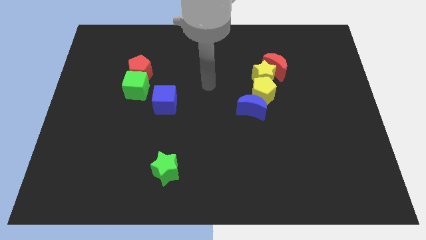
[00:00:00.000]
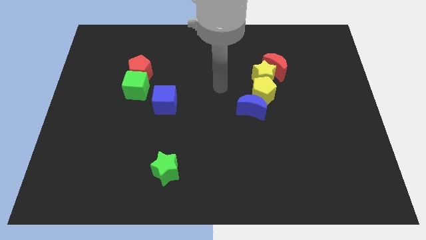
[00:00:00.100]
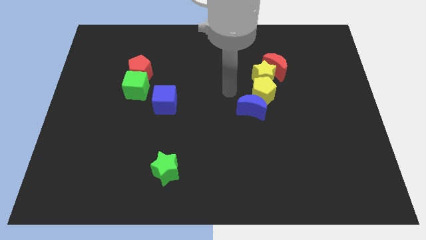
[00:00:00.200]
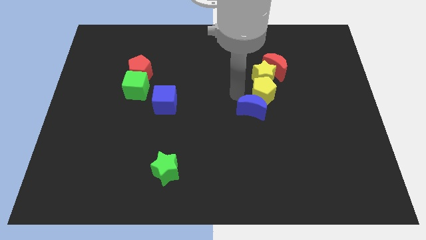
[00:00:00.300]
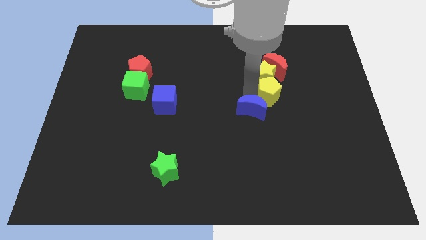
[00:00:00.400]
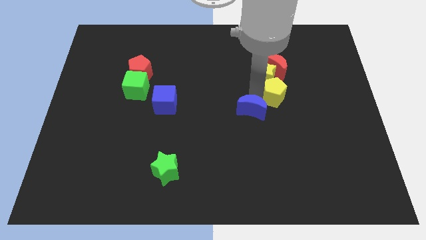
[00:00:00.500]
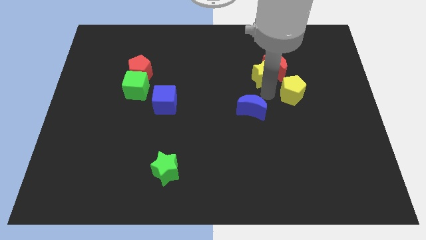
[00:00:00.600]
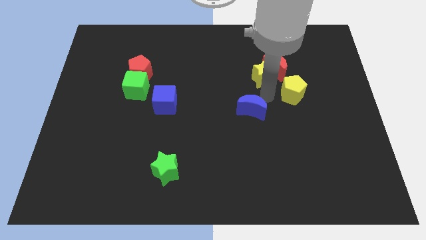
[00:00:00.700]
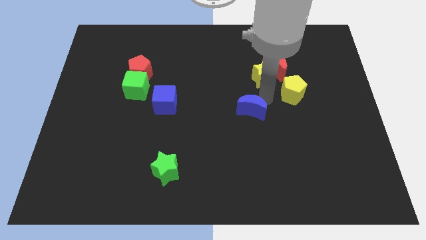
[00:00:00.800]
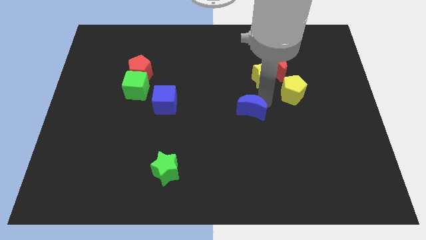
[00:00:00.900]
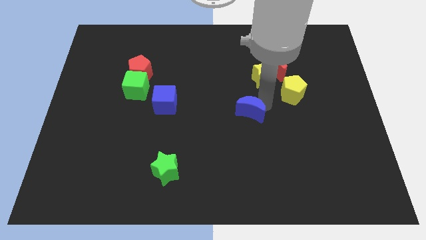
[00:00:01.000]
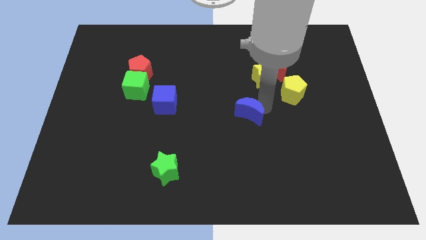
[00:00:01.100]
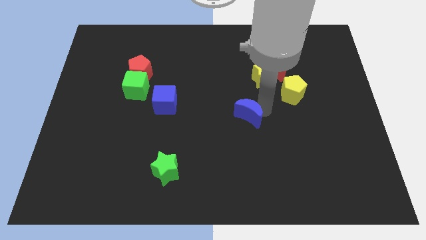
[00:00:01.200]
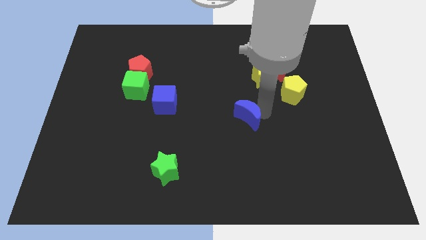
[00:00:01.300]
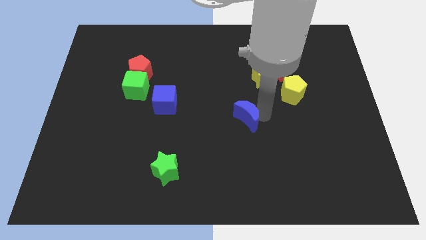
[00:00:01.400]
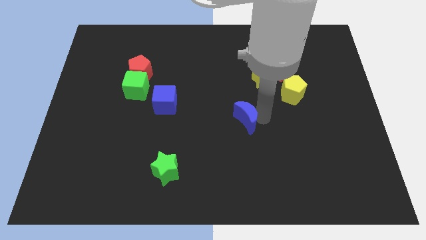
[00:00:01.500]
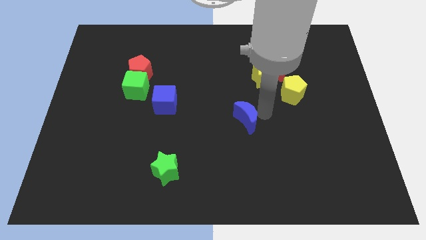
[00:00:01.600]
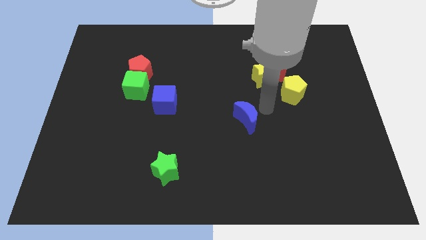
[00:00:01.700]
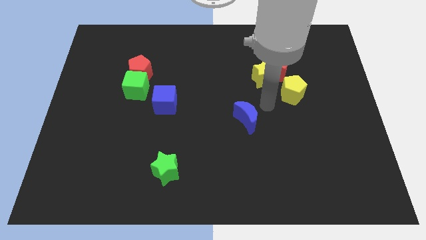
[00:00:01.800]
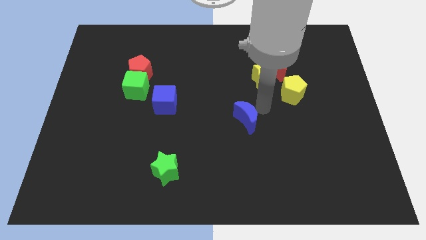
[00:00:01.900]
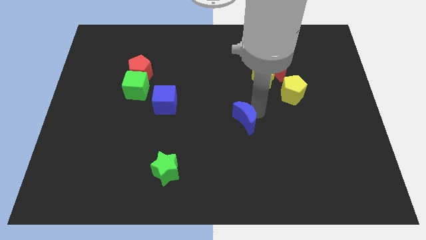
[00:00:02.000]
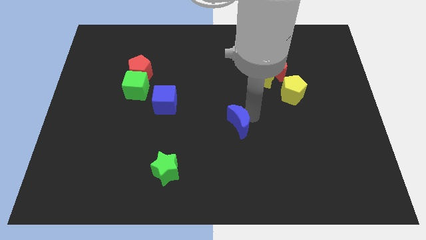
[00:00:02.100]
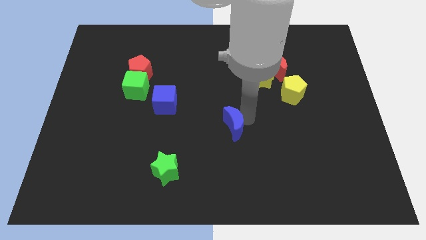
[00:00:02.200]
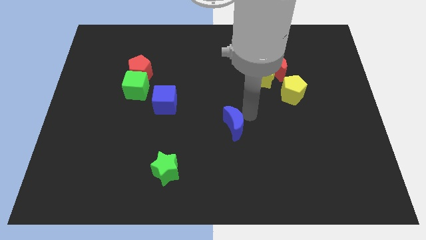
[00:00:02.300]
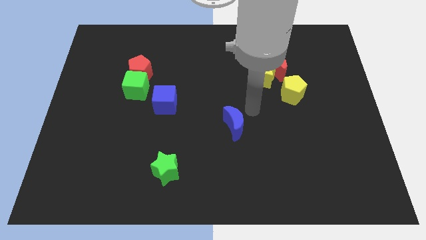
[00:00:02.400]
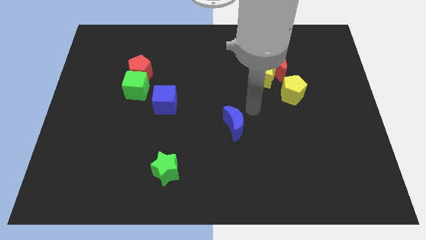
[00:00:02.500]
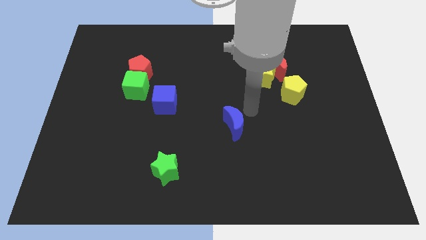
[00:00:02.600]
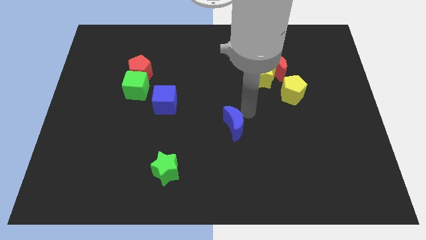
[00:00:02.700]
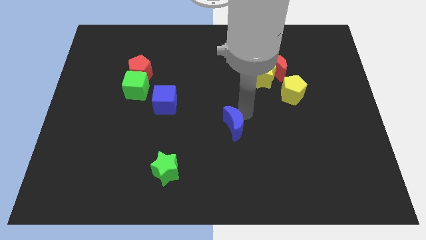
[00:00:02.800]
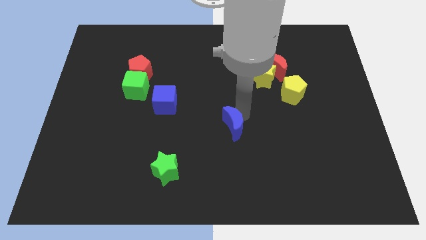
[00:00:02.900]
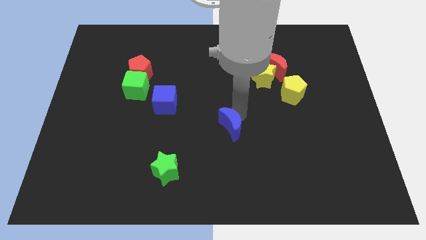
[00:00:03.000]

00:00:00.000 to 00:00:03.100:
move the blue moon a little down and to the left

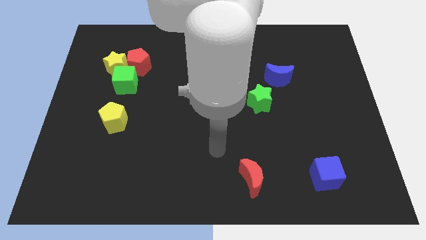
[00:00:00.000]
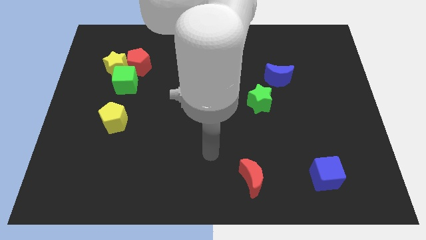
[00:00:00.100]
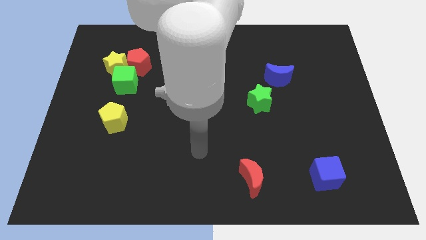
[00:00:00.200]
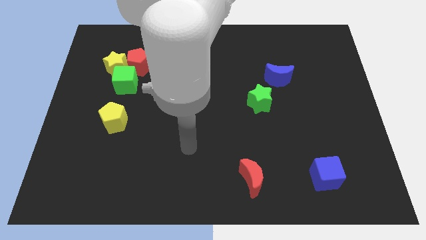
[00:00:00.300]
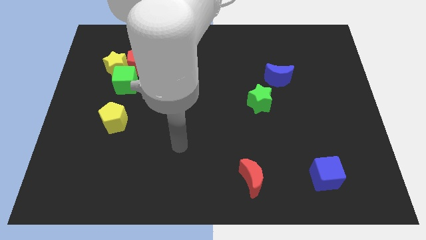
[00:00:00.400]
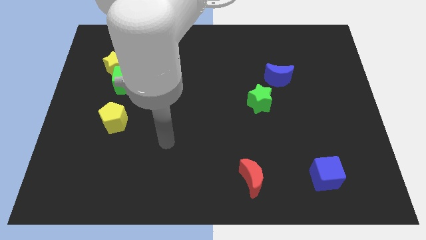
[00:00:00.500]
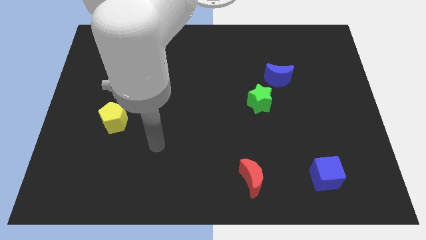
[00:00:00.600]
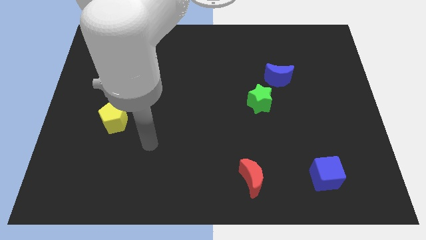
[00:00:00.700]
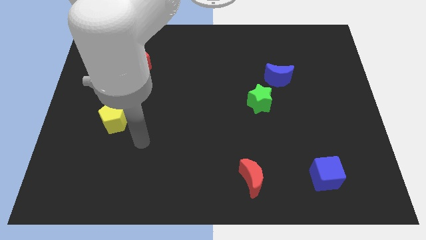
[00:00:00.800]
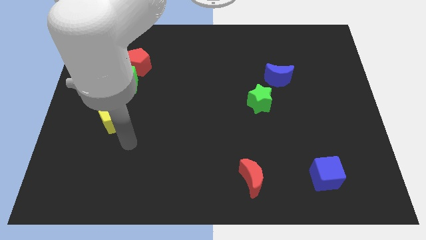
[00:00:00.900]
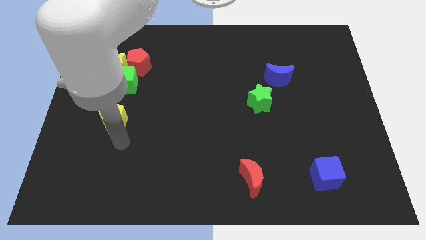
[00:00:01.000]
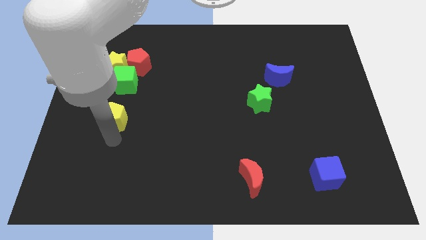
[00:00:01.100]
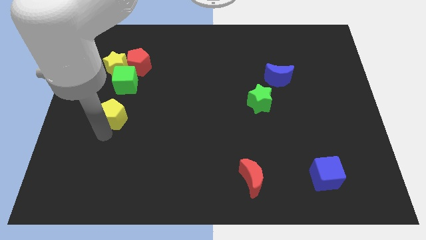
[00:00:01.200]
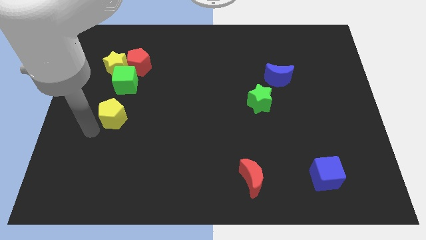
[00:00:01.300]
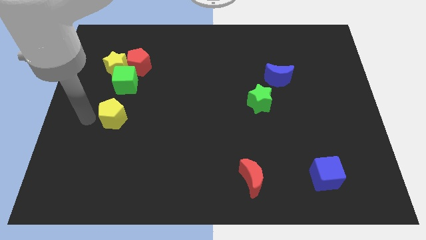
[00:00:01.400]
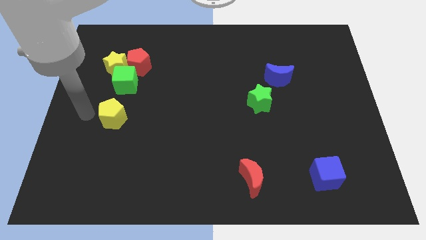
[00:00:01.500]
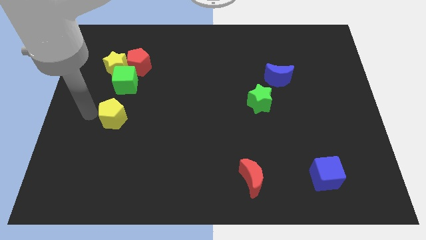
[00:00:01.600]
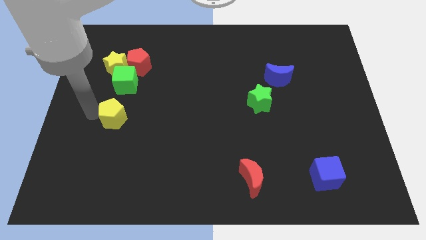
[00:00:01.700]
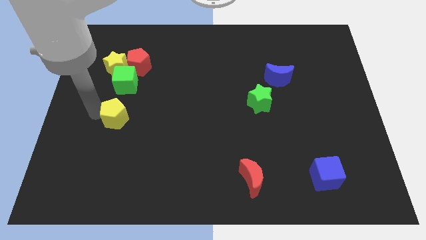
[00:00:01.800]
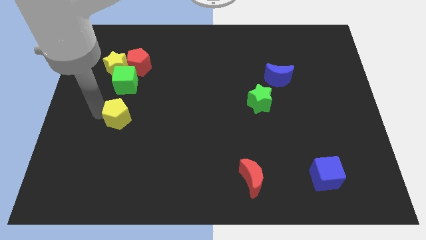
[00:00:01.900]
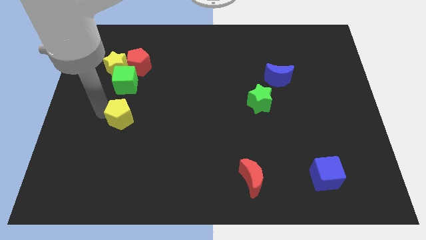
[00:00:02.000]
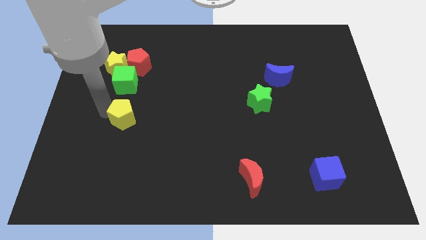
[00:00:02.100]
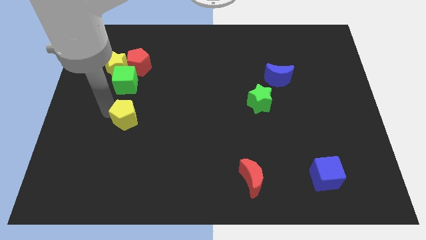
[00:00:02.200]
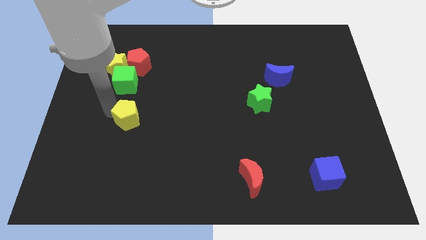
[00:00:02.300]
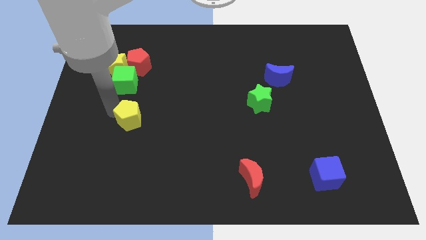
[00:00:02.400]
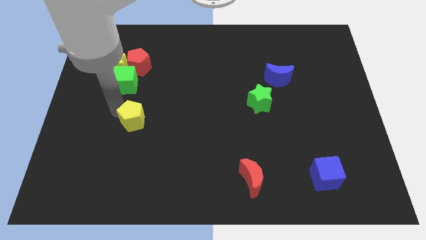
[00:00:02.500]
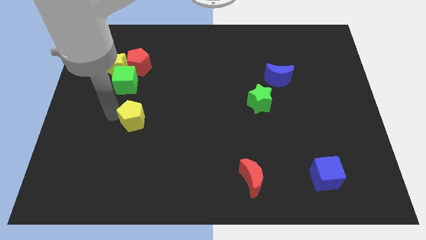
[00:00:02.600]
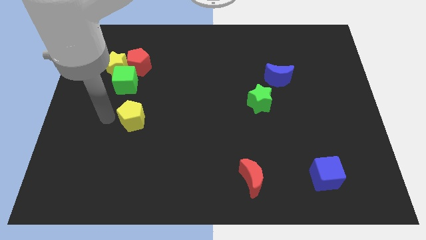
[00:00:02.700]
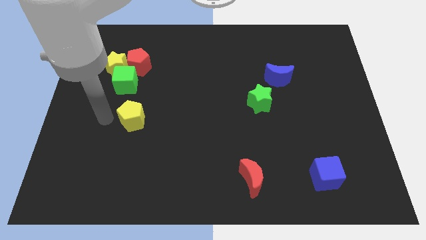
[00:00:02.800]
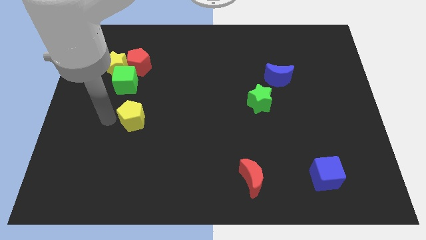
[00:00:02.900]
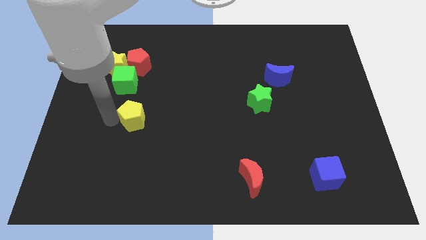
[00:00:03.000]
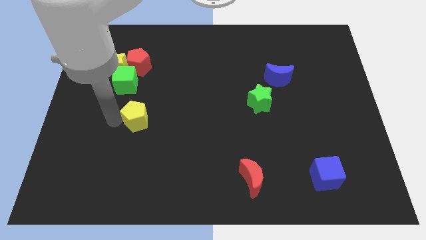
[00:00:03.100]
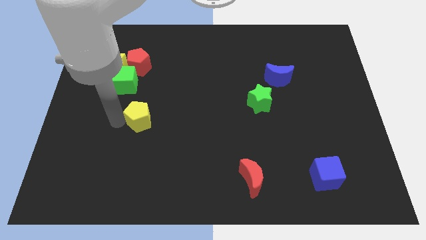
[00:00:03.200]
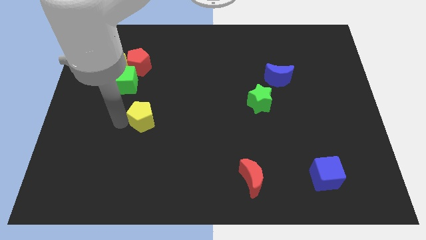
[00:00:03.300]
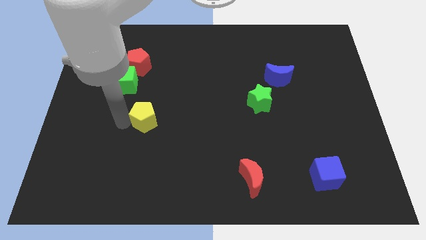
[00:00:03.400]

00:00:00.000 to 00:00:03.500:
slightly slide the yellow pentagon right

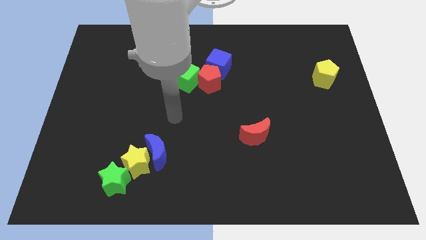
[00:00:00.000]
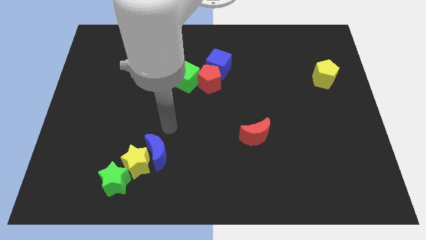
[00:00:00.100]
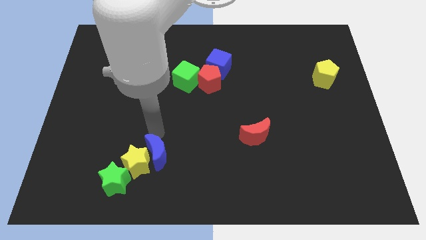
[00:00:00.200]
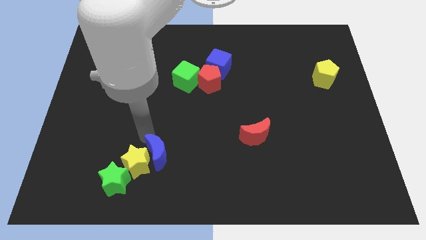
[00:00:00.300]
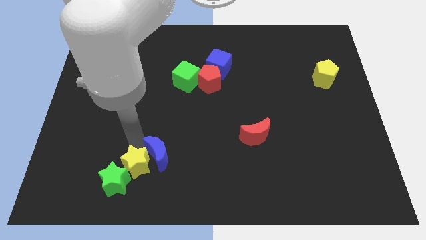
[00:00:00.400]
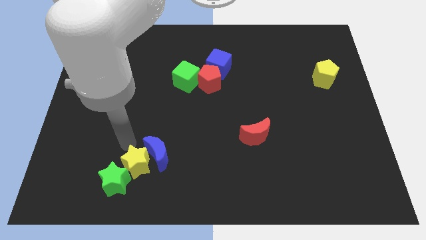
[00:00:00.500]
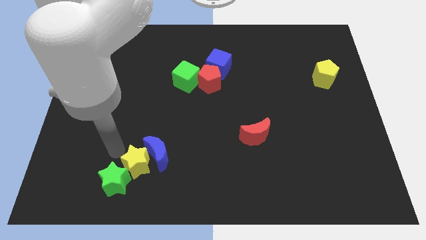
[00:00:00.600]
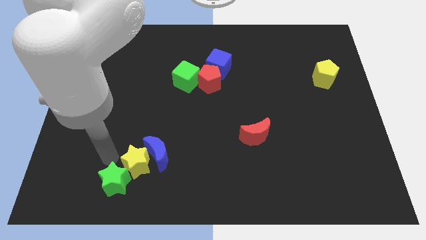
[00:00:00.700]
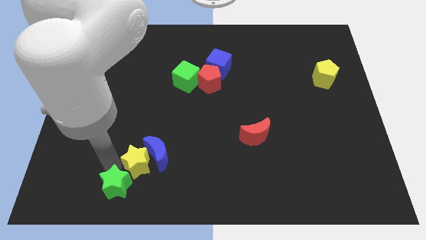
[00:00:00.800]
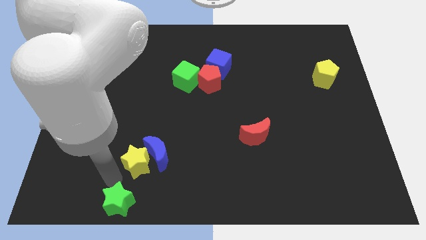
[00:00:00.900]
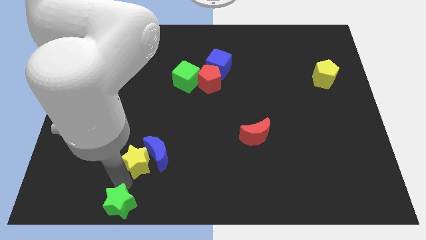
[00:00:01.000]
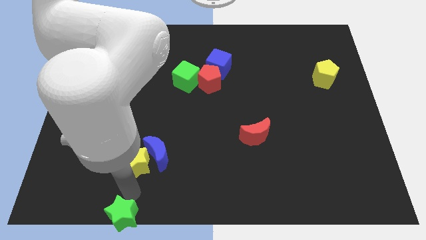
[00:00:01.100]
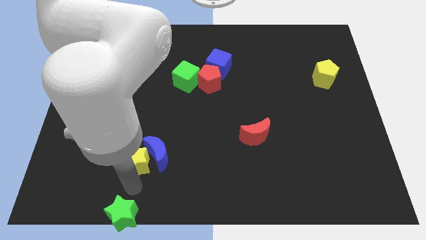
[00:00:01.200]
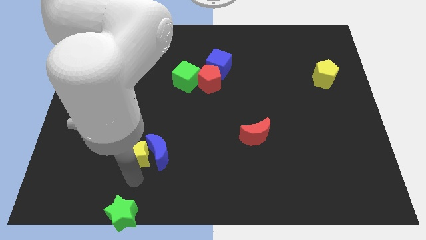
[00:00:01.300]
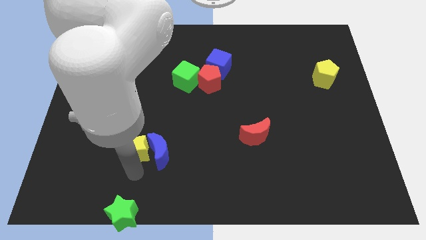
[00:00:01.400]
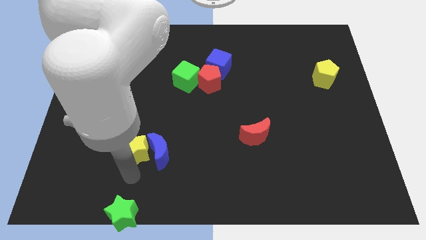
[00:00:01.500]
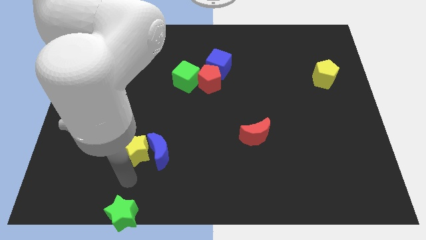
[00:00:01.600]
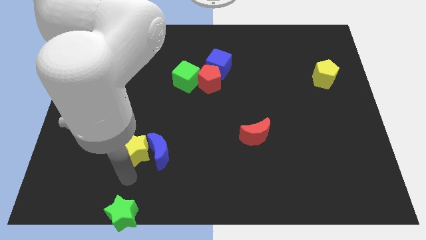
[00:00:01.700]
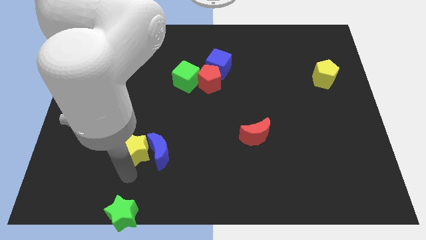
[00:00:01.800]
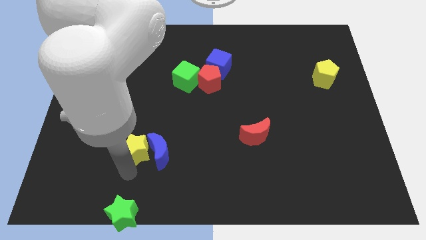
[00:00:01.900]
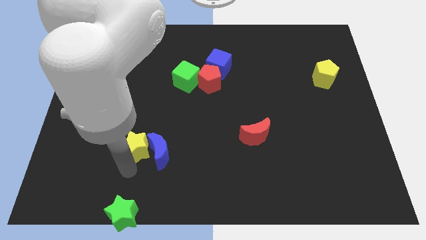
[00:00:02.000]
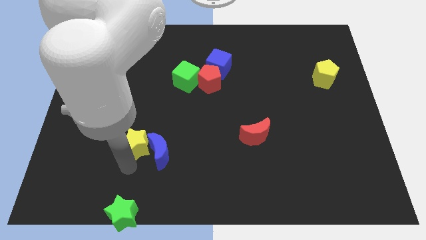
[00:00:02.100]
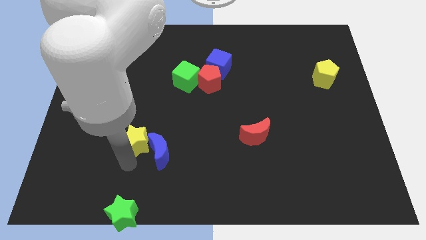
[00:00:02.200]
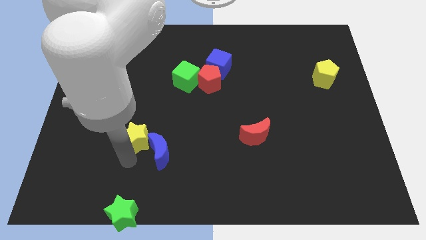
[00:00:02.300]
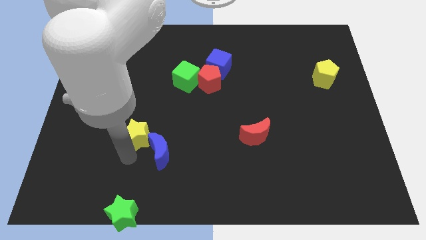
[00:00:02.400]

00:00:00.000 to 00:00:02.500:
move the yellow star up somewhat
